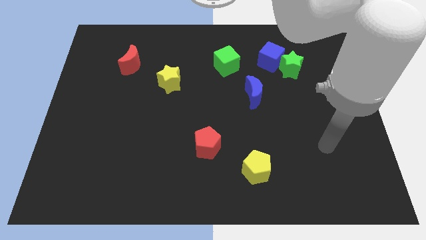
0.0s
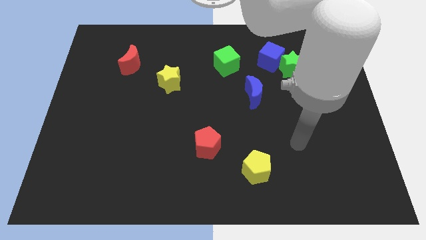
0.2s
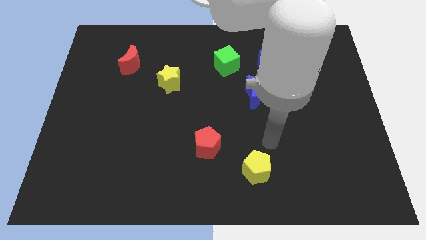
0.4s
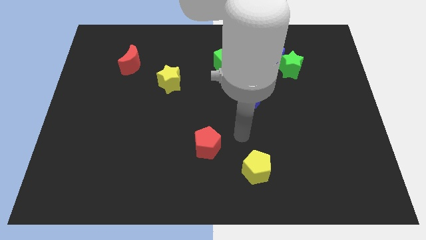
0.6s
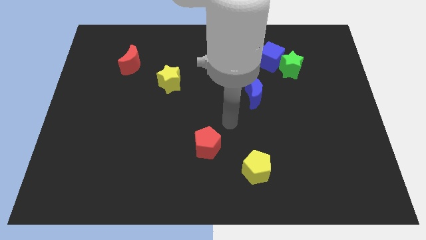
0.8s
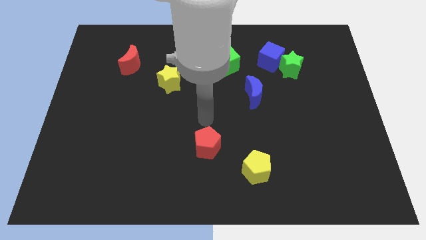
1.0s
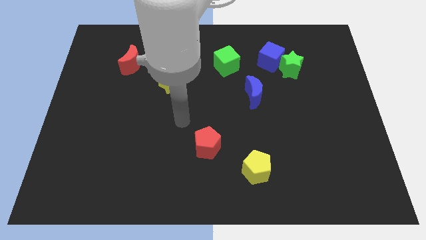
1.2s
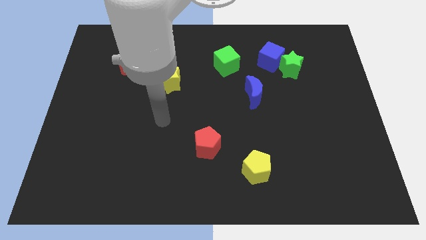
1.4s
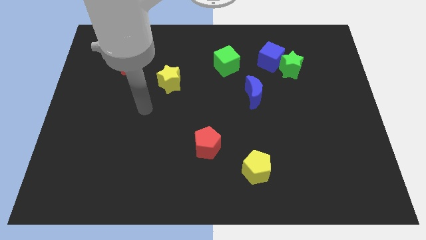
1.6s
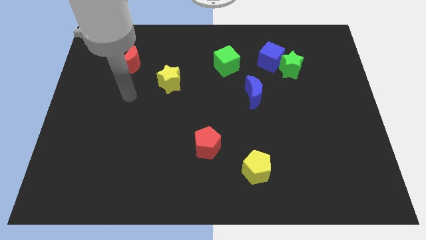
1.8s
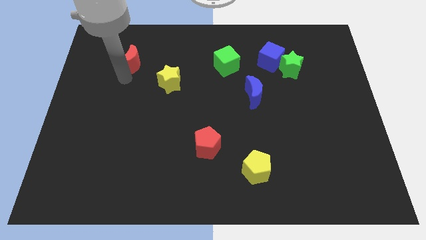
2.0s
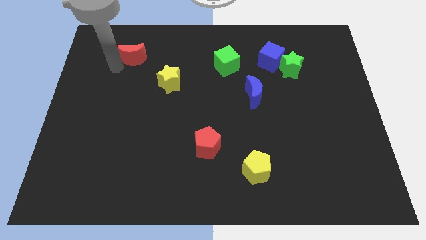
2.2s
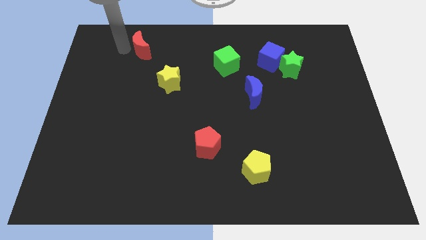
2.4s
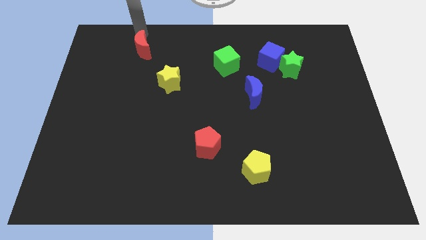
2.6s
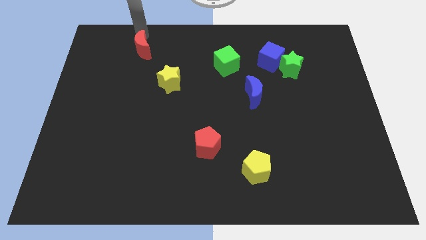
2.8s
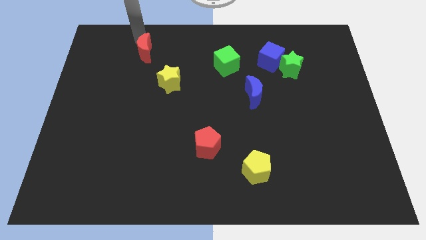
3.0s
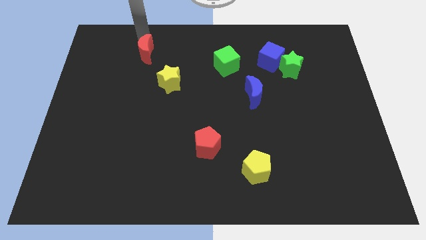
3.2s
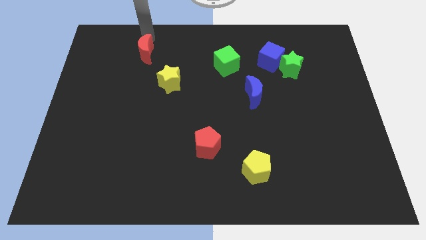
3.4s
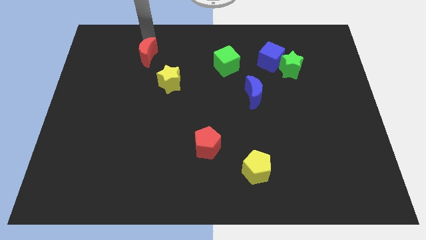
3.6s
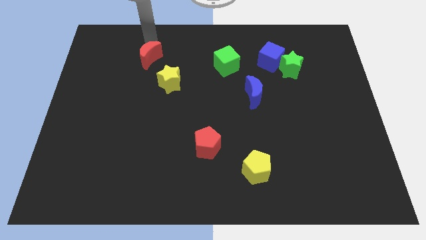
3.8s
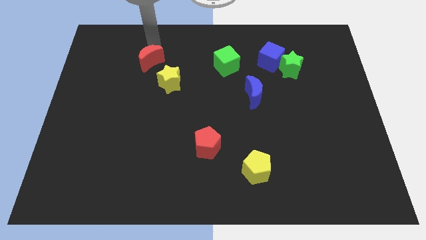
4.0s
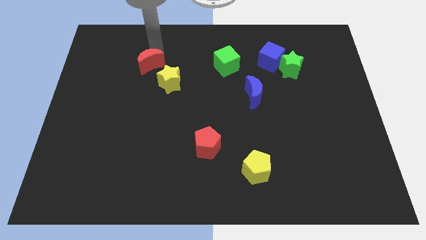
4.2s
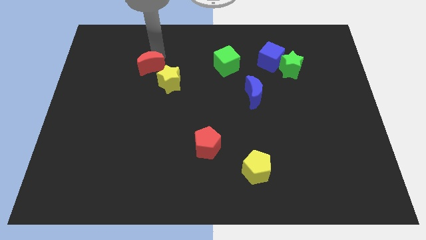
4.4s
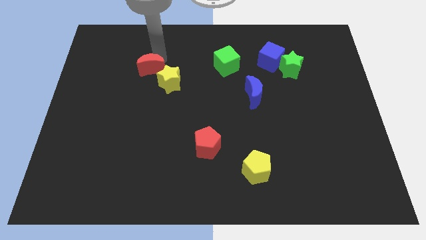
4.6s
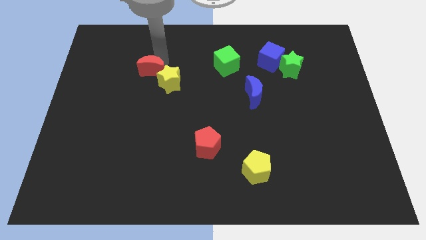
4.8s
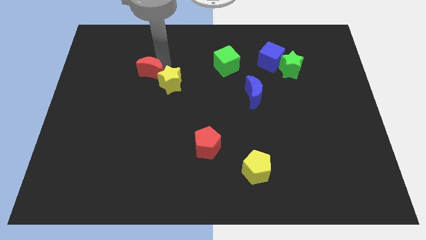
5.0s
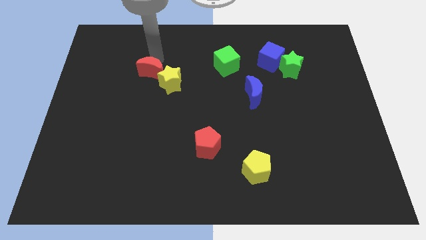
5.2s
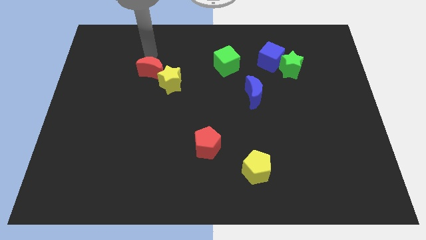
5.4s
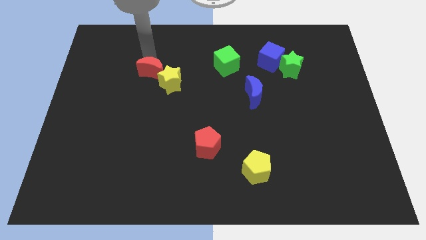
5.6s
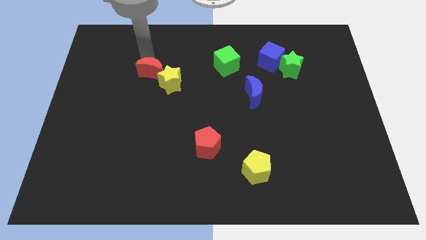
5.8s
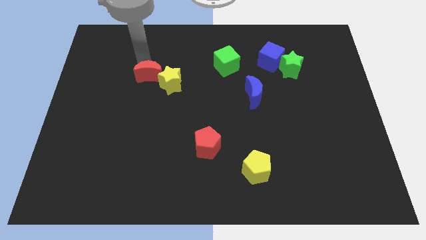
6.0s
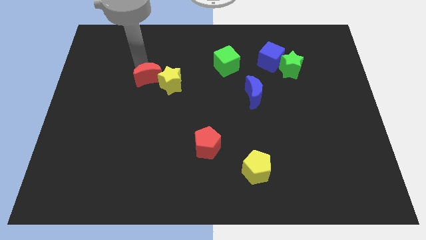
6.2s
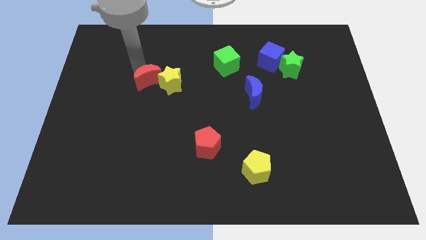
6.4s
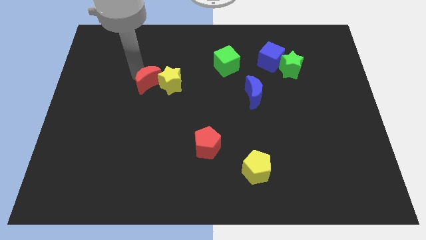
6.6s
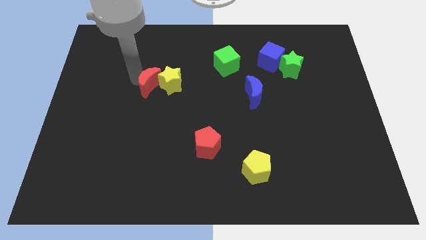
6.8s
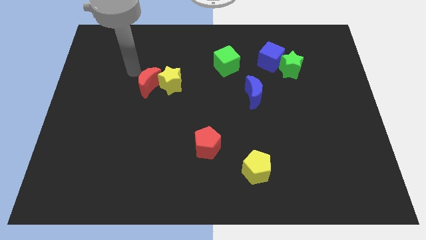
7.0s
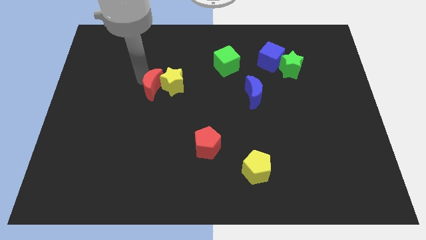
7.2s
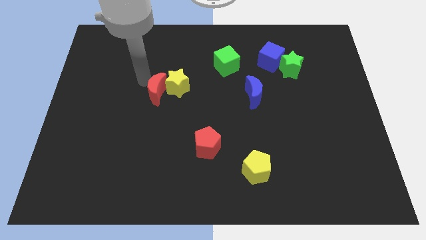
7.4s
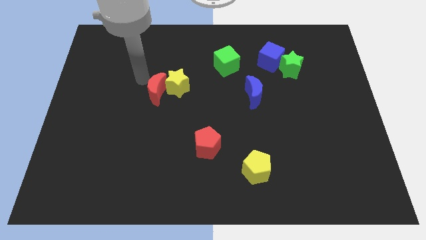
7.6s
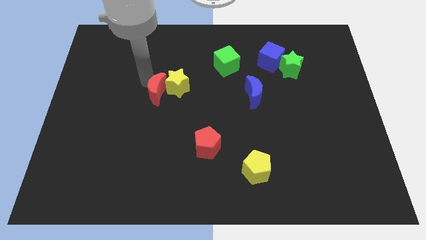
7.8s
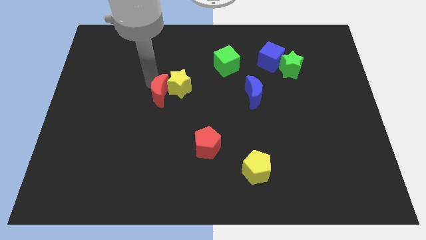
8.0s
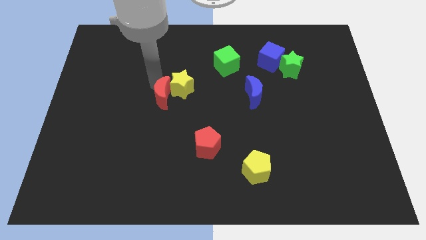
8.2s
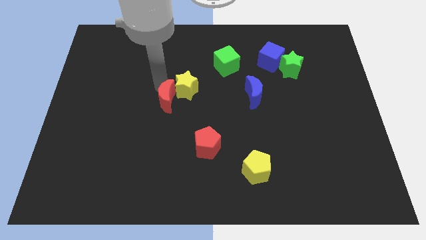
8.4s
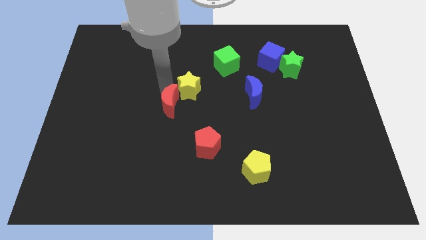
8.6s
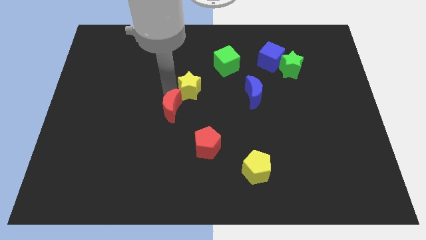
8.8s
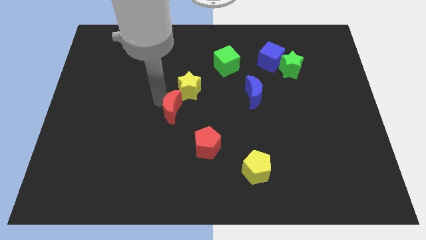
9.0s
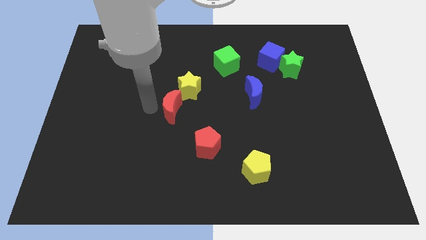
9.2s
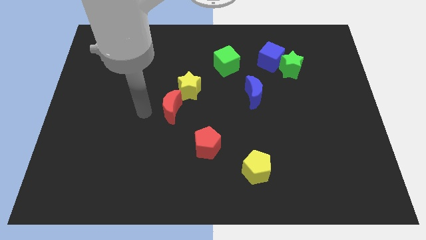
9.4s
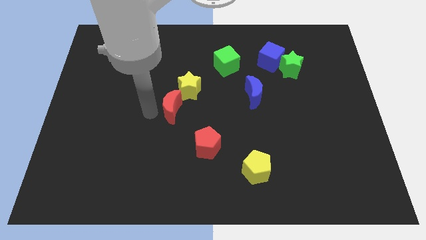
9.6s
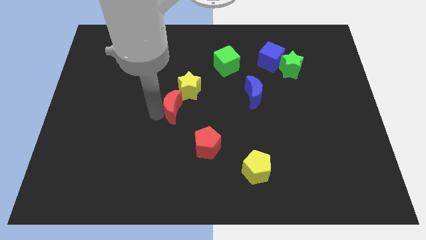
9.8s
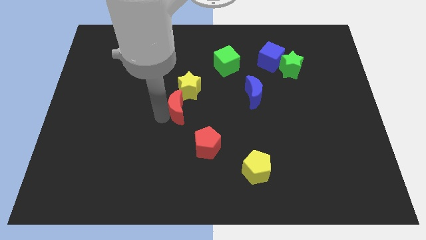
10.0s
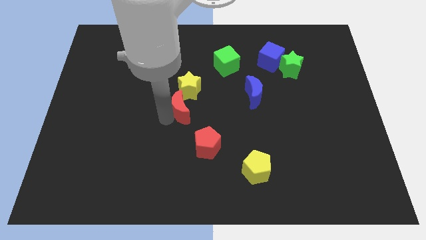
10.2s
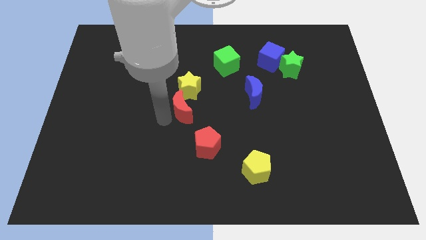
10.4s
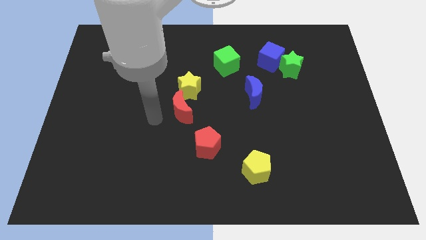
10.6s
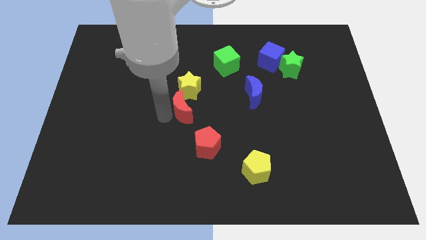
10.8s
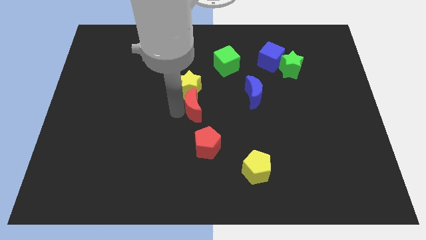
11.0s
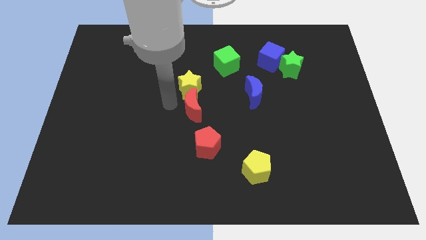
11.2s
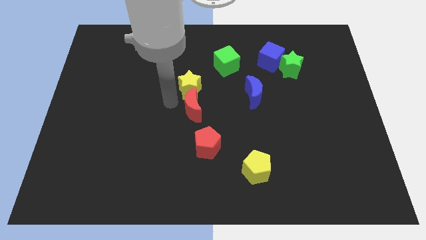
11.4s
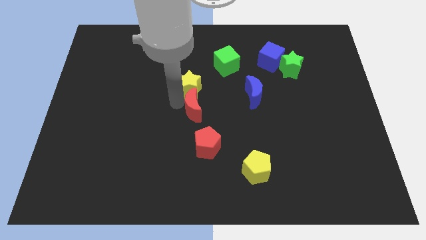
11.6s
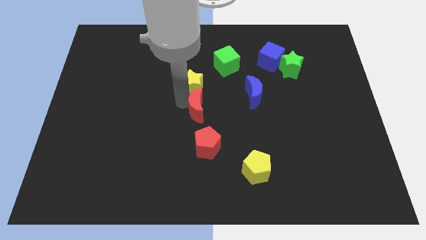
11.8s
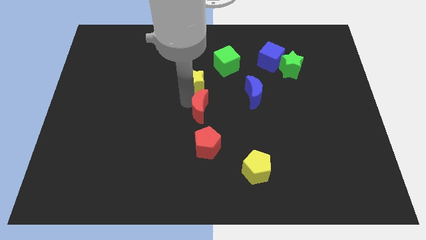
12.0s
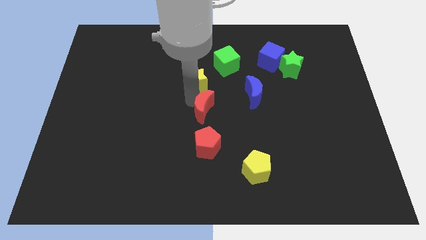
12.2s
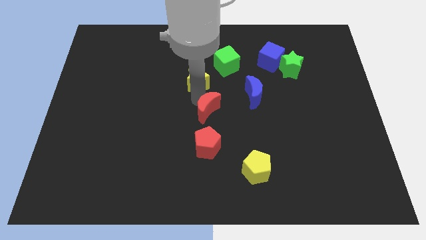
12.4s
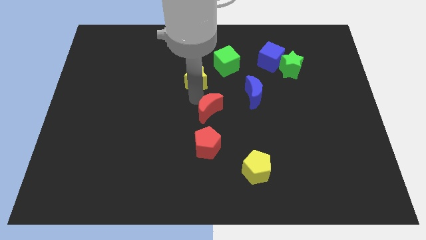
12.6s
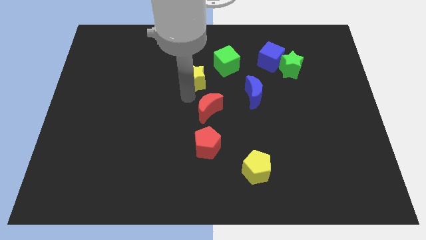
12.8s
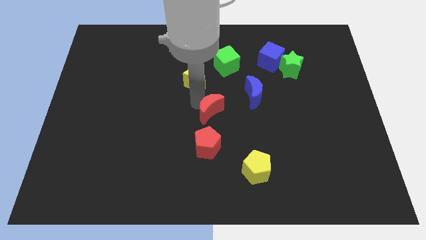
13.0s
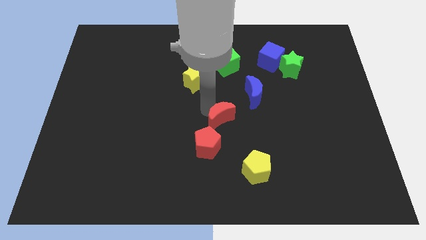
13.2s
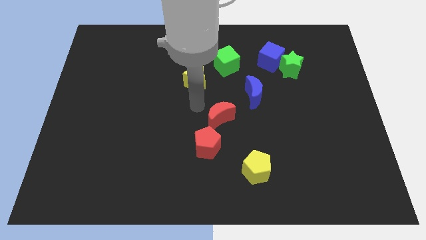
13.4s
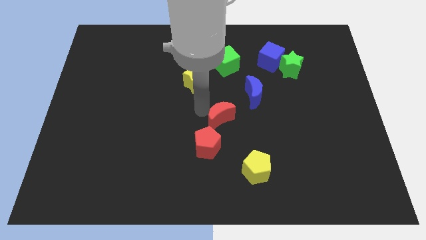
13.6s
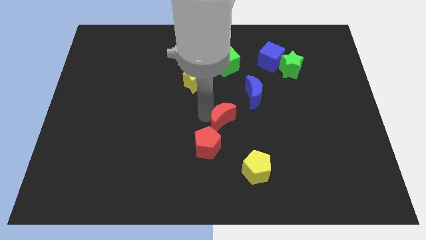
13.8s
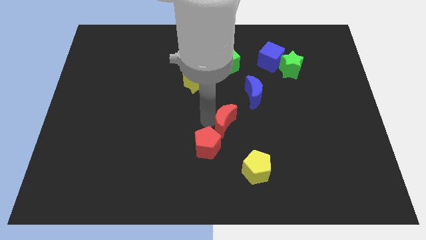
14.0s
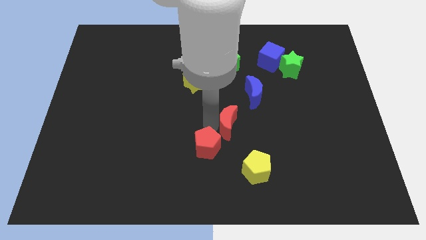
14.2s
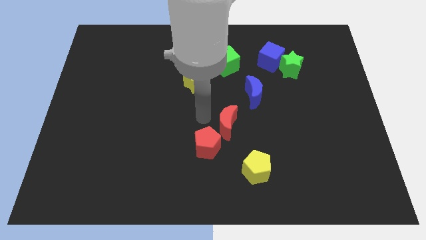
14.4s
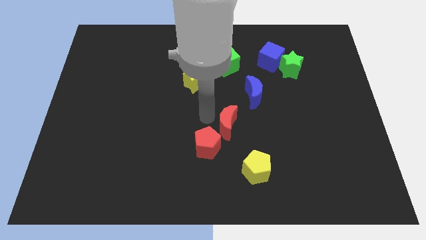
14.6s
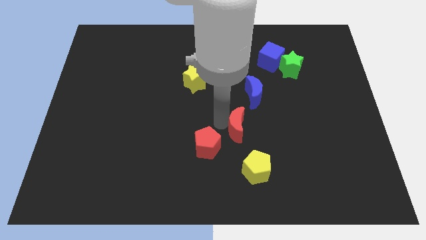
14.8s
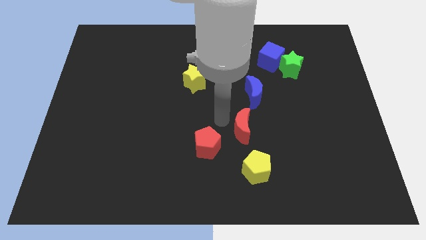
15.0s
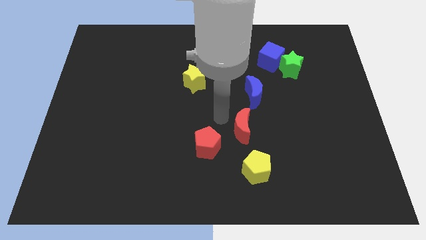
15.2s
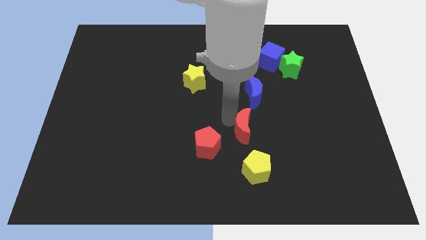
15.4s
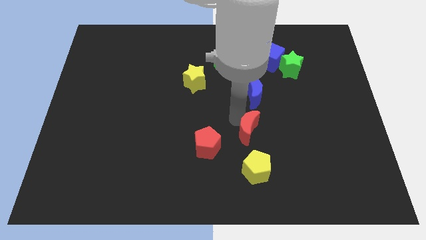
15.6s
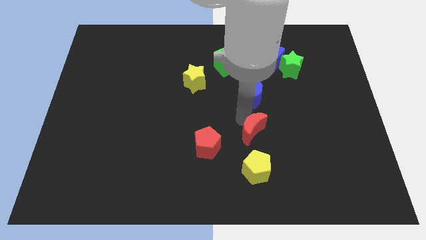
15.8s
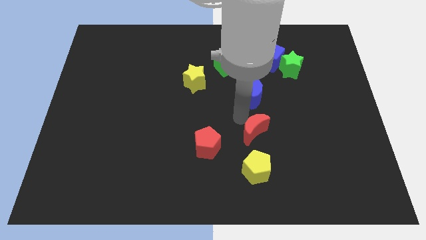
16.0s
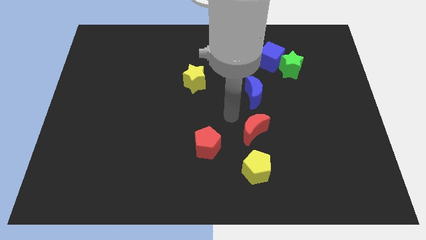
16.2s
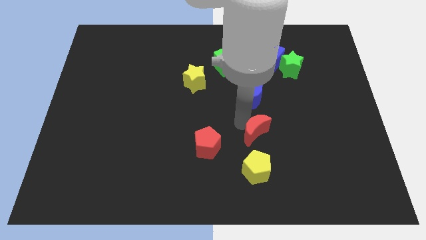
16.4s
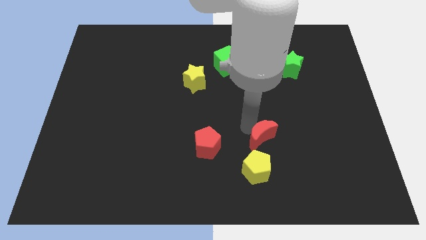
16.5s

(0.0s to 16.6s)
put the red moon to the top right of the yellow pentagon
